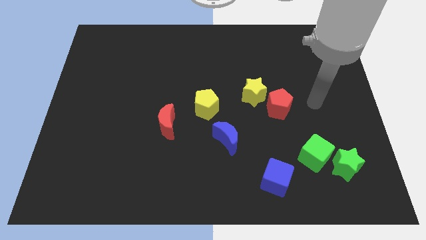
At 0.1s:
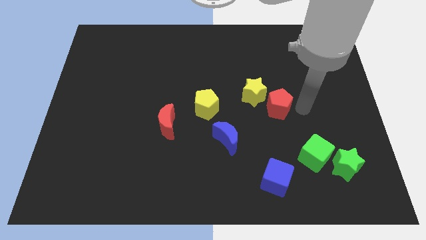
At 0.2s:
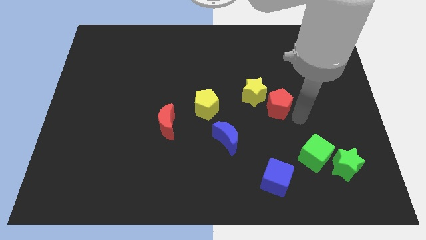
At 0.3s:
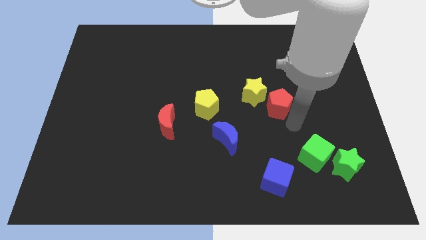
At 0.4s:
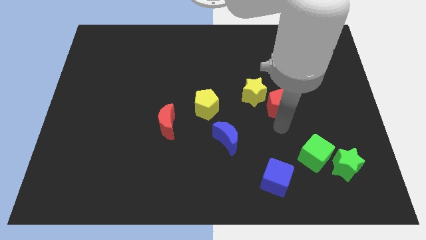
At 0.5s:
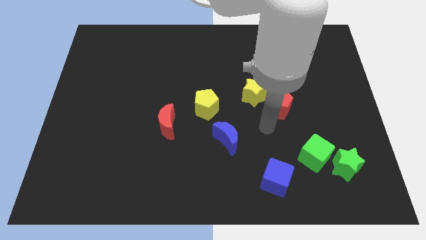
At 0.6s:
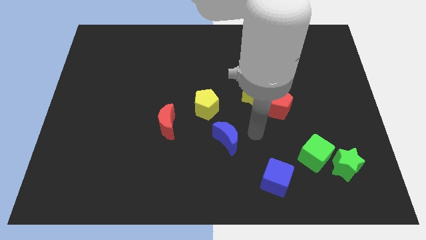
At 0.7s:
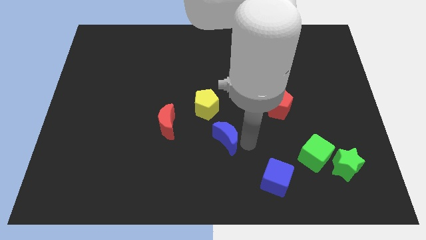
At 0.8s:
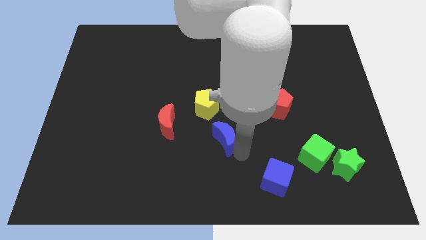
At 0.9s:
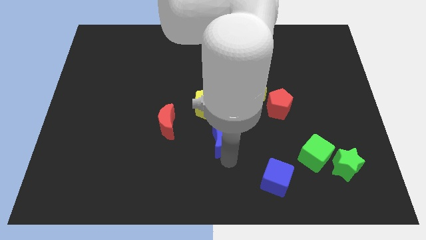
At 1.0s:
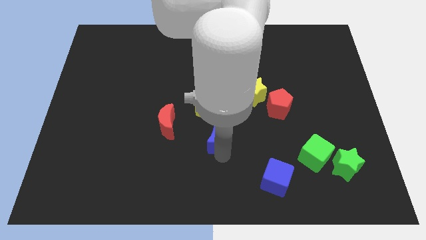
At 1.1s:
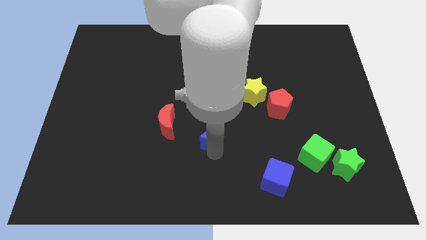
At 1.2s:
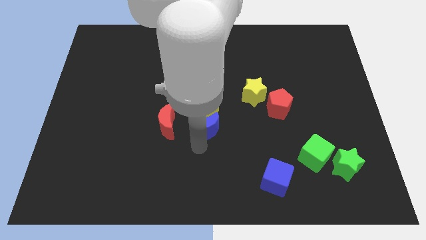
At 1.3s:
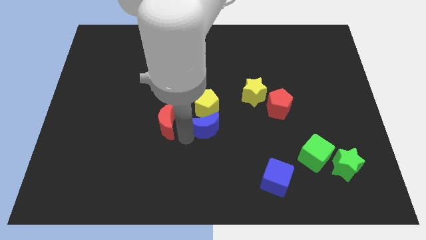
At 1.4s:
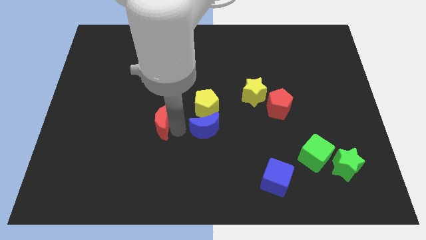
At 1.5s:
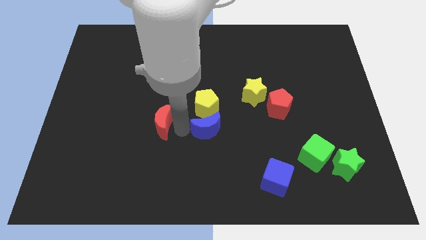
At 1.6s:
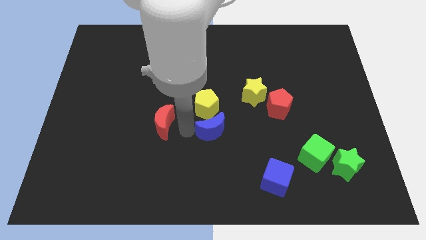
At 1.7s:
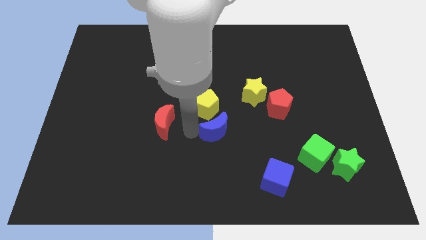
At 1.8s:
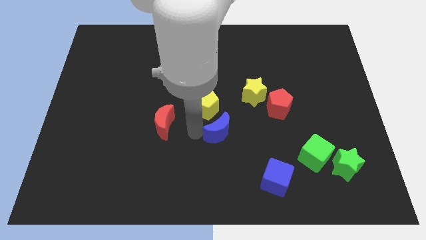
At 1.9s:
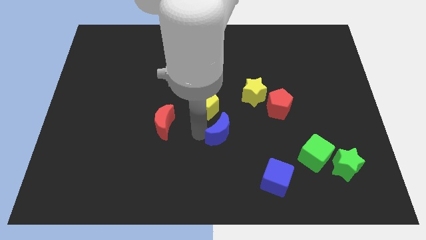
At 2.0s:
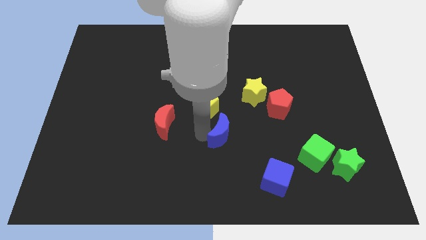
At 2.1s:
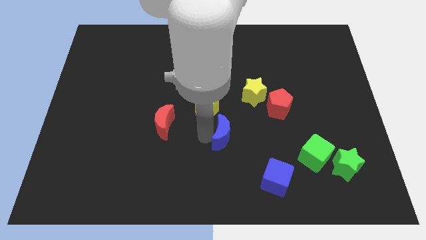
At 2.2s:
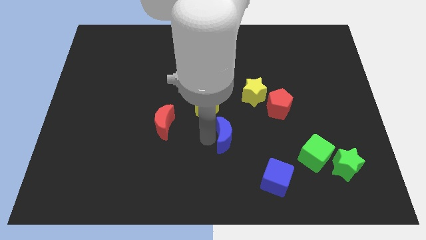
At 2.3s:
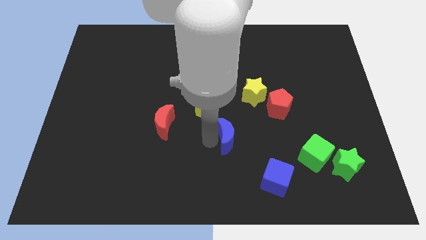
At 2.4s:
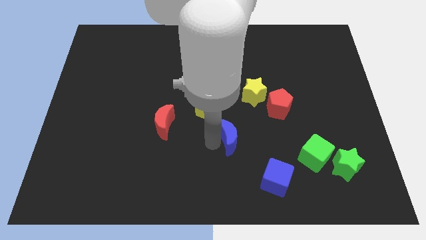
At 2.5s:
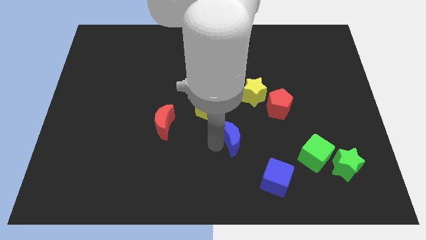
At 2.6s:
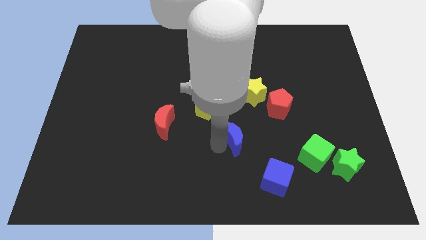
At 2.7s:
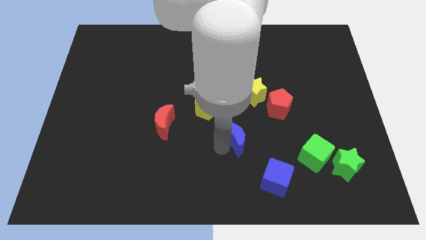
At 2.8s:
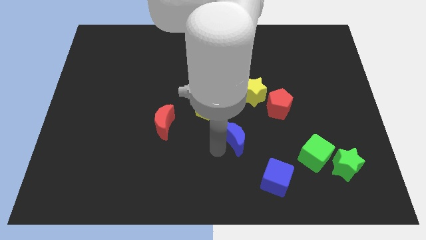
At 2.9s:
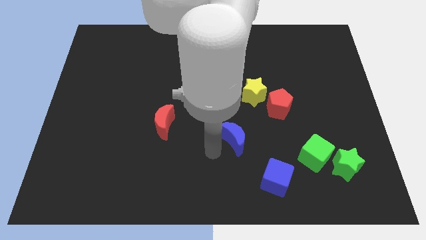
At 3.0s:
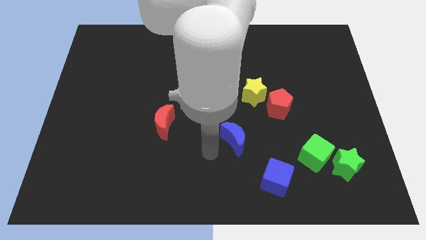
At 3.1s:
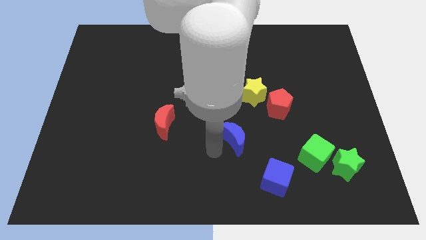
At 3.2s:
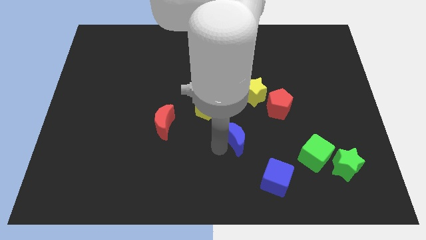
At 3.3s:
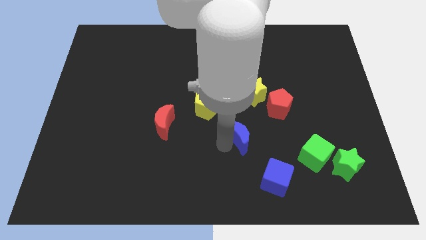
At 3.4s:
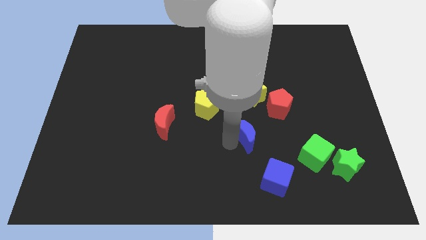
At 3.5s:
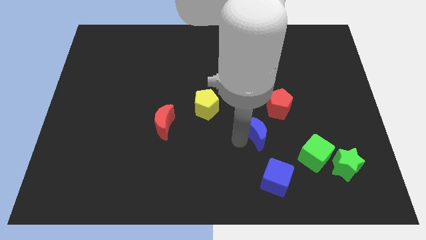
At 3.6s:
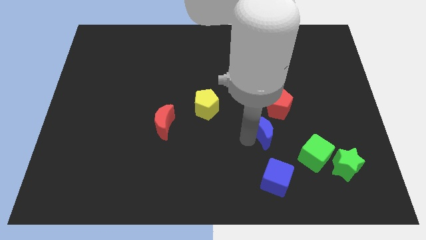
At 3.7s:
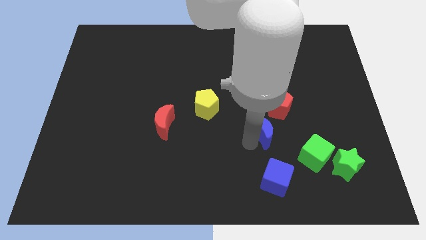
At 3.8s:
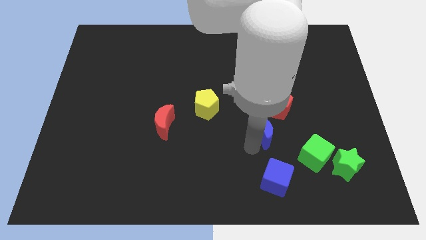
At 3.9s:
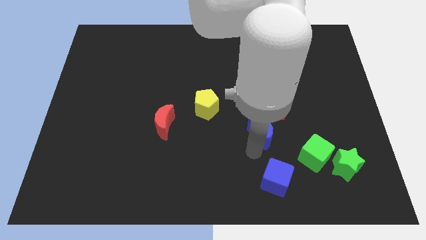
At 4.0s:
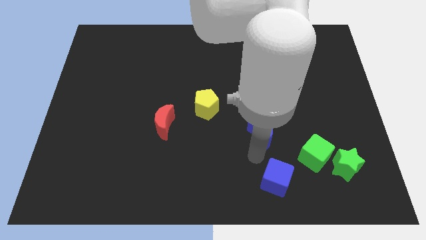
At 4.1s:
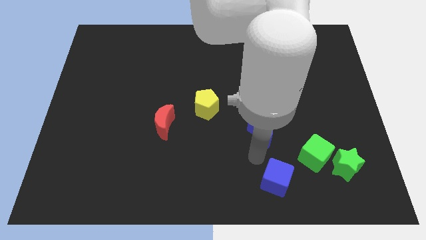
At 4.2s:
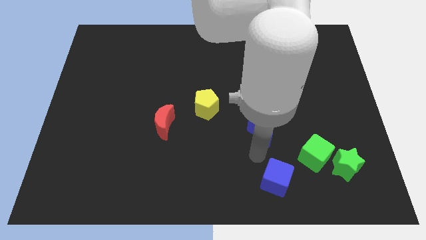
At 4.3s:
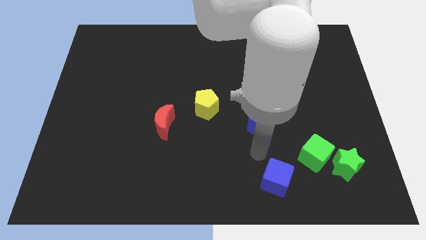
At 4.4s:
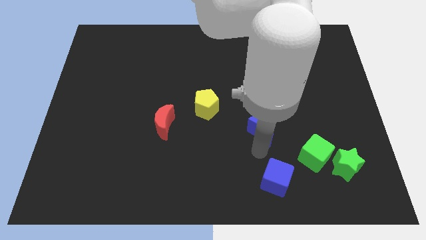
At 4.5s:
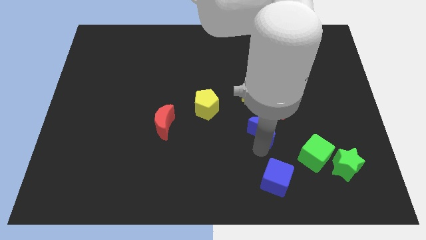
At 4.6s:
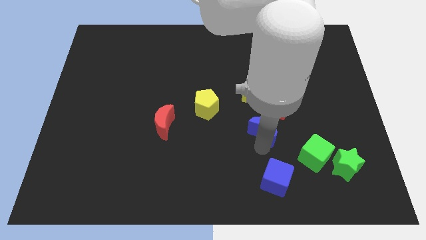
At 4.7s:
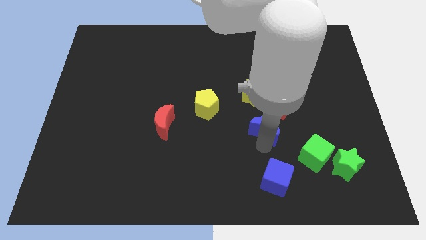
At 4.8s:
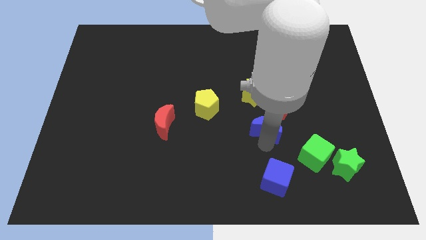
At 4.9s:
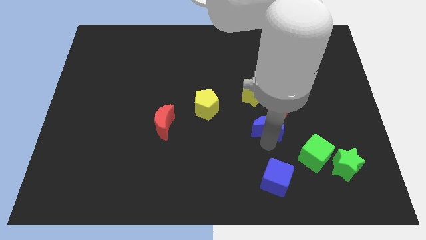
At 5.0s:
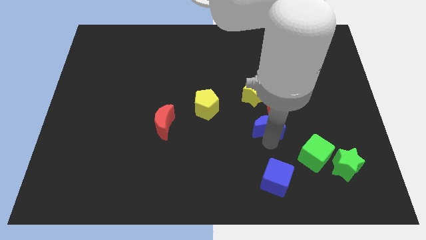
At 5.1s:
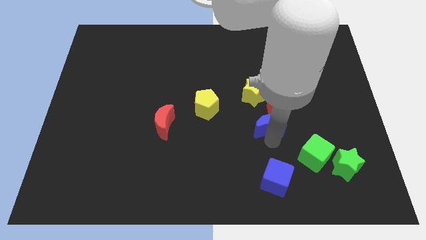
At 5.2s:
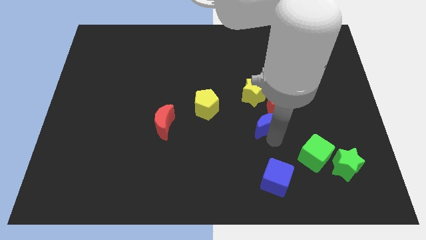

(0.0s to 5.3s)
put the blue moon close to the red pentagon
